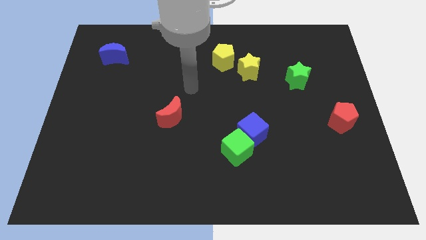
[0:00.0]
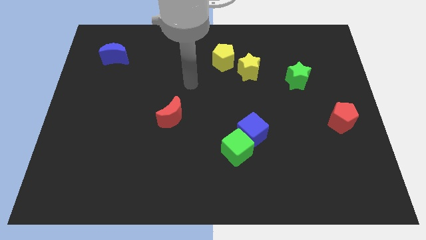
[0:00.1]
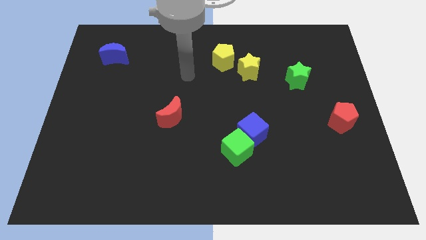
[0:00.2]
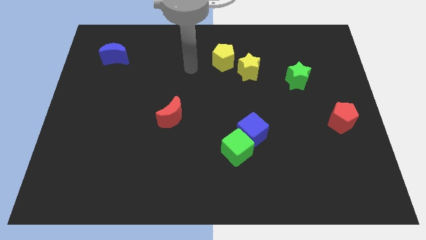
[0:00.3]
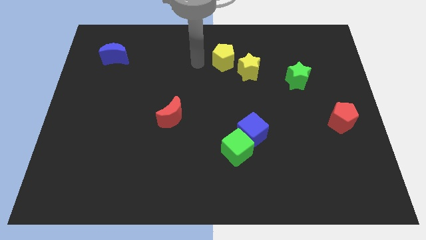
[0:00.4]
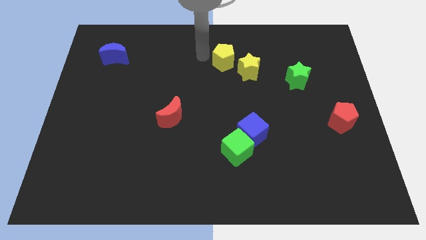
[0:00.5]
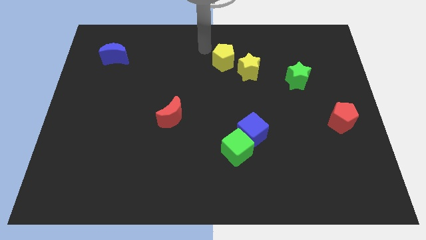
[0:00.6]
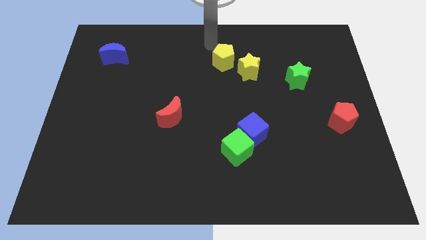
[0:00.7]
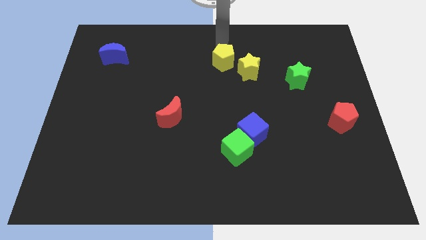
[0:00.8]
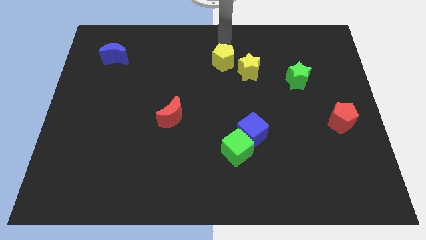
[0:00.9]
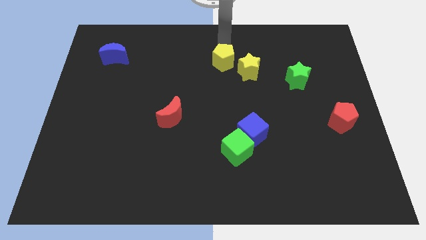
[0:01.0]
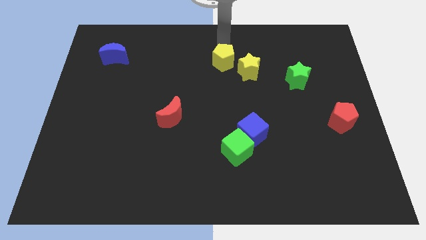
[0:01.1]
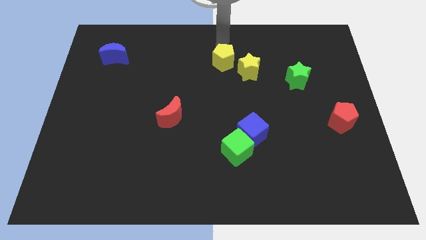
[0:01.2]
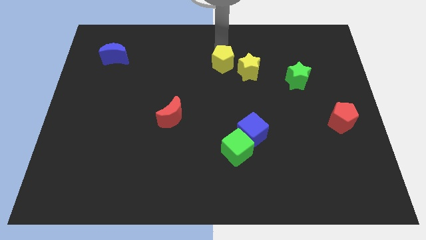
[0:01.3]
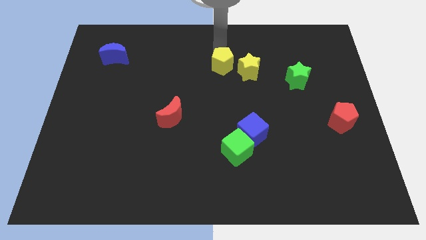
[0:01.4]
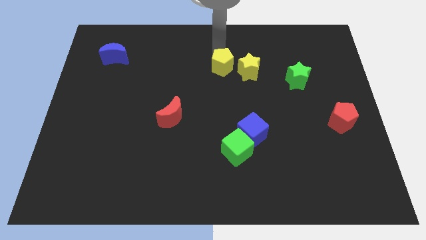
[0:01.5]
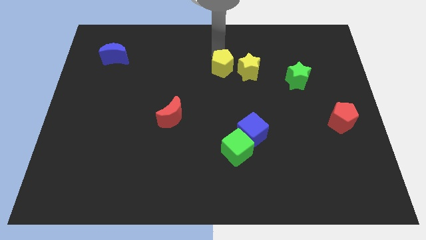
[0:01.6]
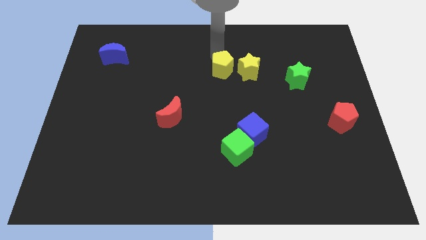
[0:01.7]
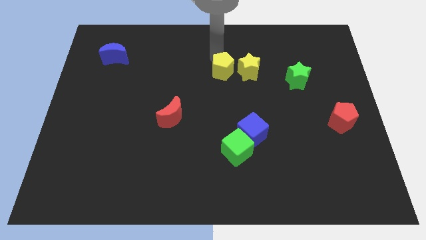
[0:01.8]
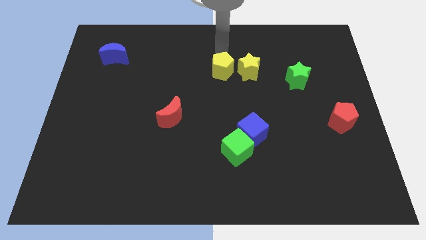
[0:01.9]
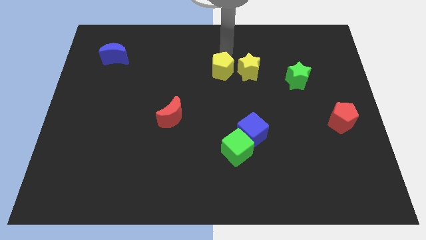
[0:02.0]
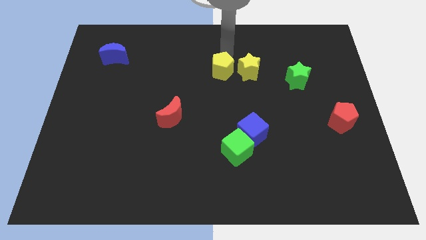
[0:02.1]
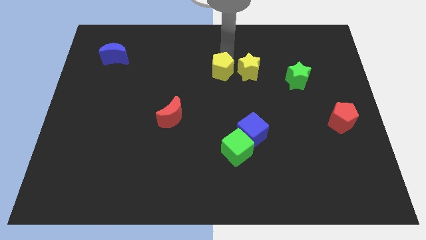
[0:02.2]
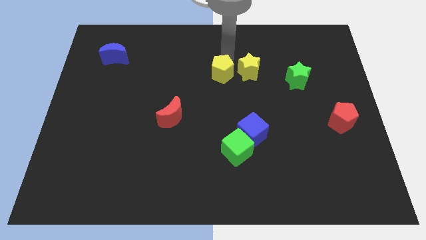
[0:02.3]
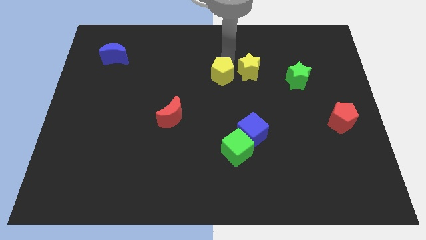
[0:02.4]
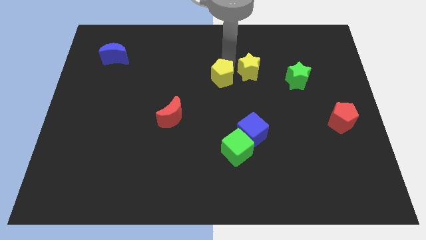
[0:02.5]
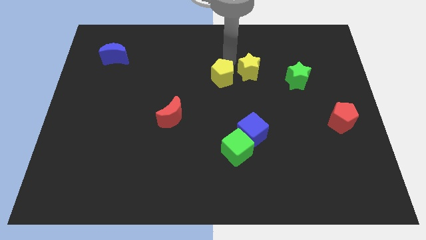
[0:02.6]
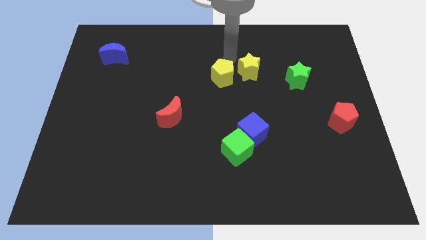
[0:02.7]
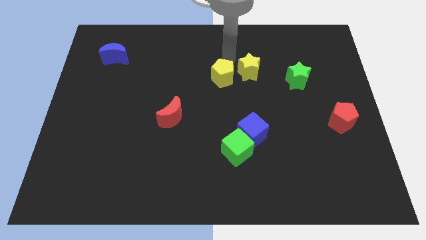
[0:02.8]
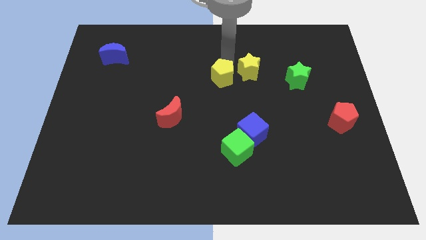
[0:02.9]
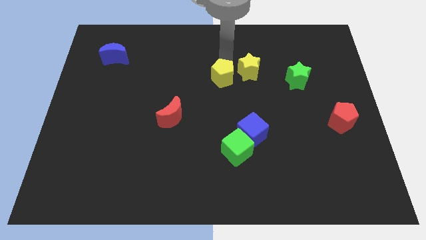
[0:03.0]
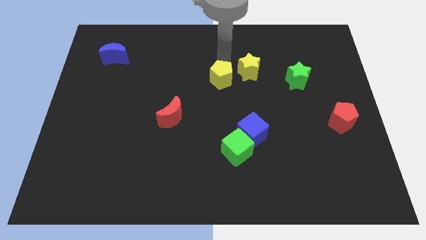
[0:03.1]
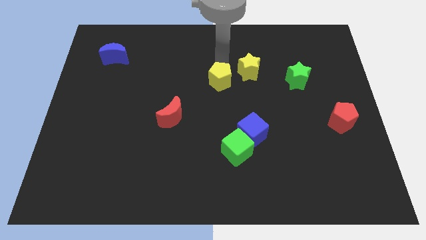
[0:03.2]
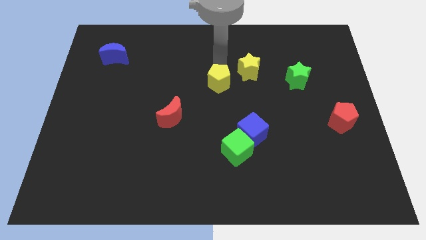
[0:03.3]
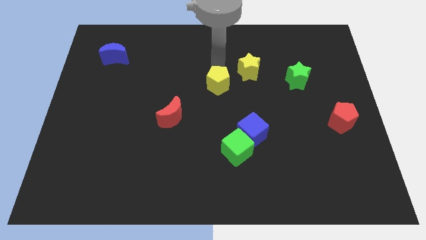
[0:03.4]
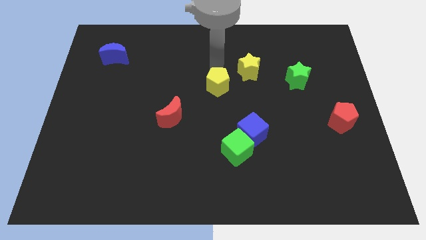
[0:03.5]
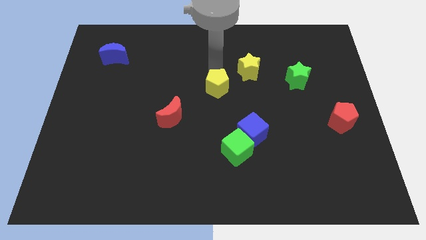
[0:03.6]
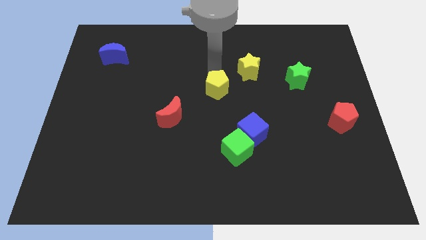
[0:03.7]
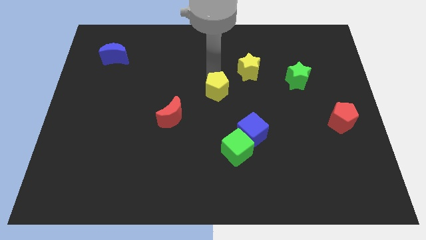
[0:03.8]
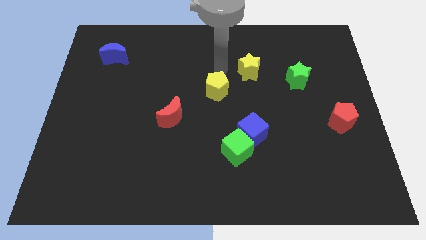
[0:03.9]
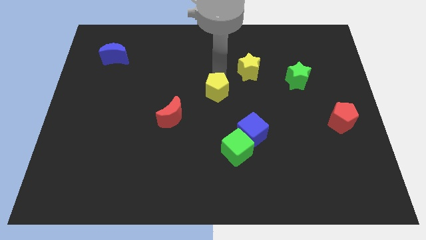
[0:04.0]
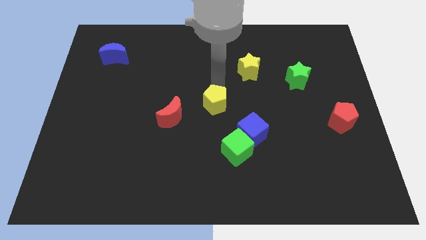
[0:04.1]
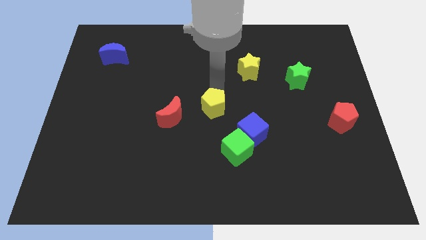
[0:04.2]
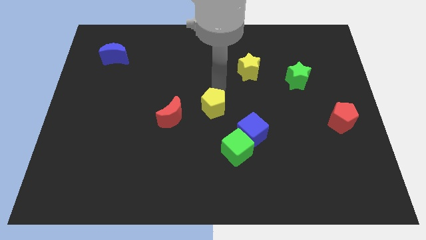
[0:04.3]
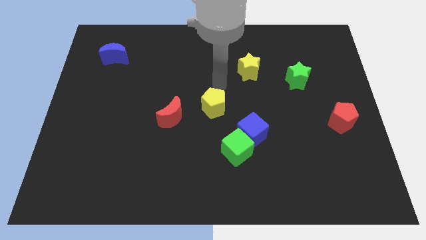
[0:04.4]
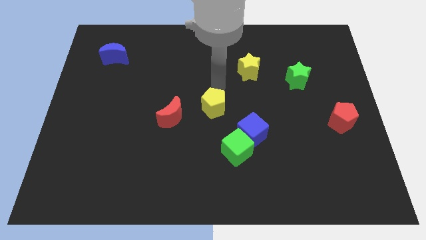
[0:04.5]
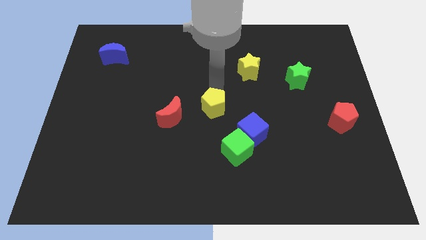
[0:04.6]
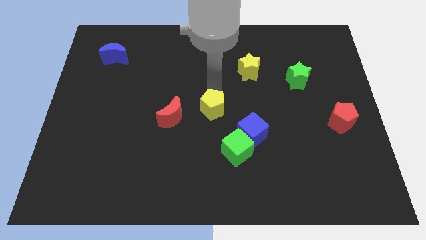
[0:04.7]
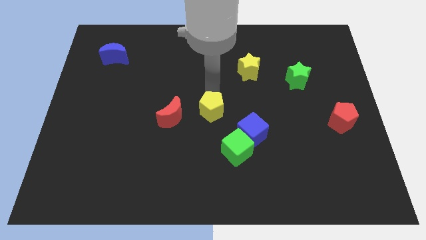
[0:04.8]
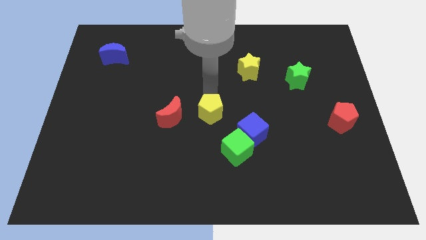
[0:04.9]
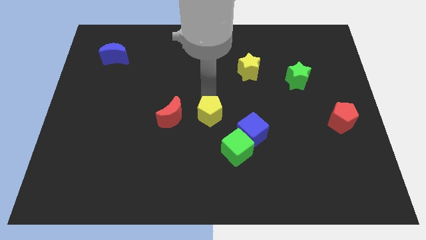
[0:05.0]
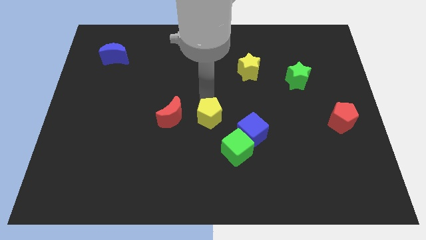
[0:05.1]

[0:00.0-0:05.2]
slide the yellow pentagon to the left of the blue cube

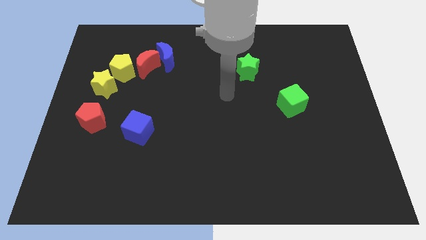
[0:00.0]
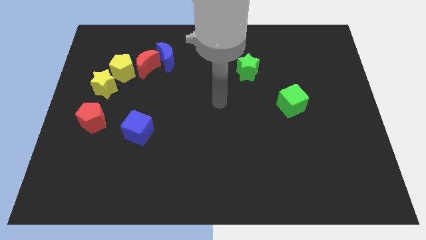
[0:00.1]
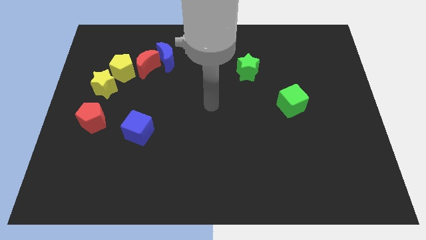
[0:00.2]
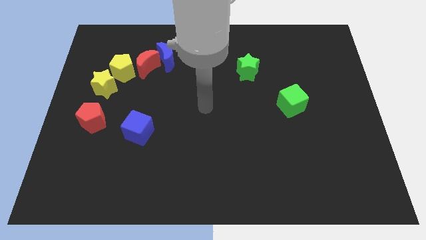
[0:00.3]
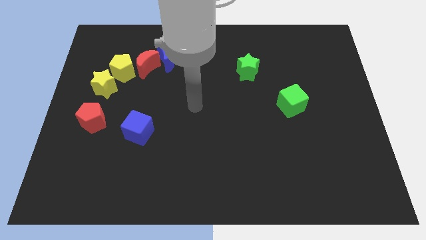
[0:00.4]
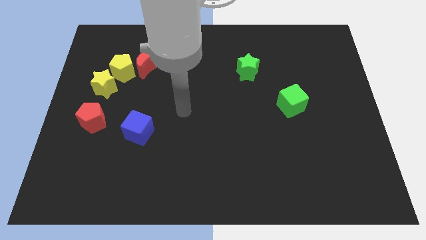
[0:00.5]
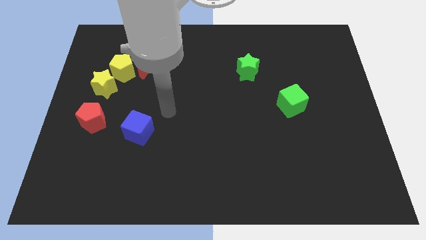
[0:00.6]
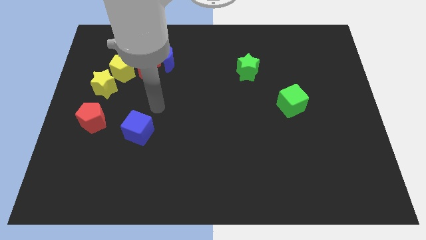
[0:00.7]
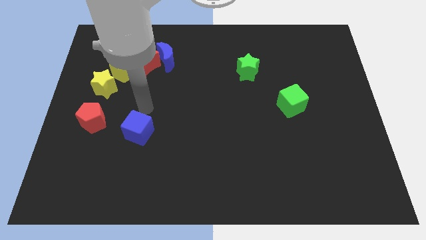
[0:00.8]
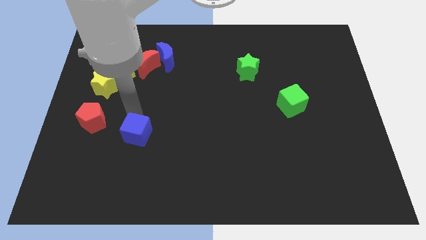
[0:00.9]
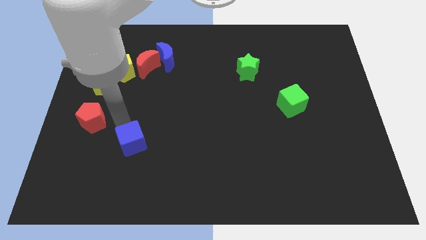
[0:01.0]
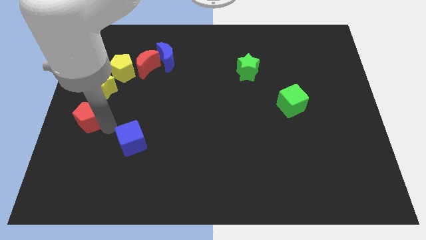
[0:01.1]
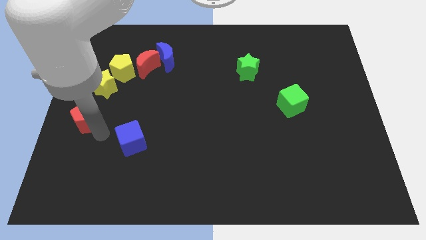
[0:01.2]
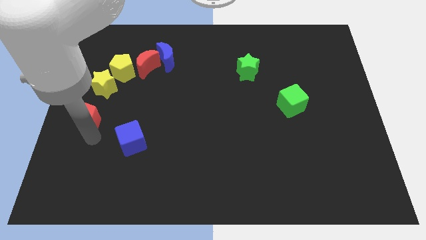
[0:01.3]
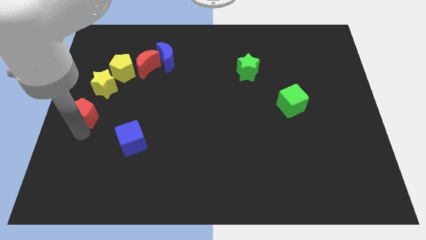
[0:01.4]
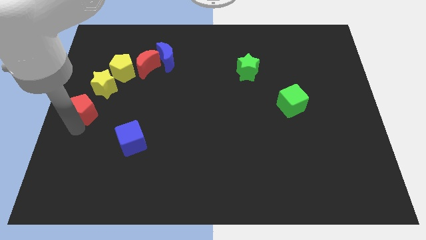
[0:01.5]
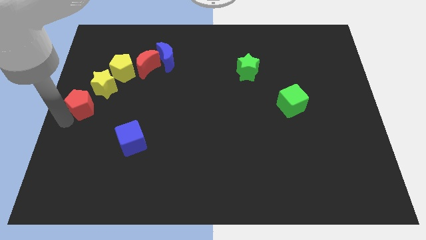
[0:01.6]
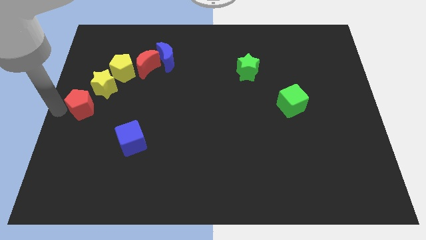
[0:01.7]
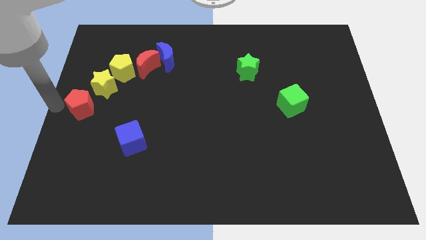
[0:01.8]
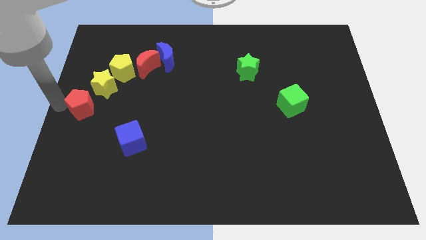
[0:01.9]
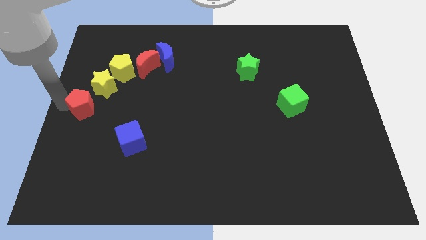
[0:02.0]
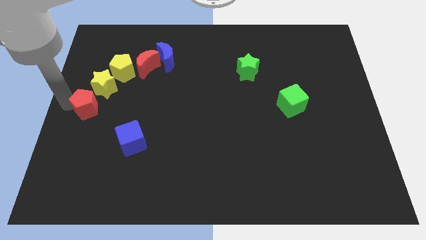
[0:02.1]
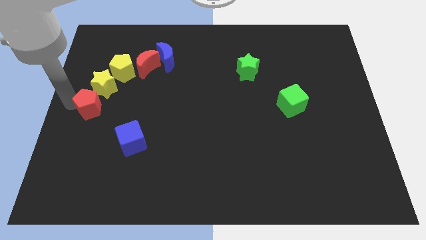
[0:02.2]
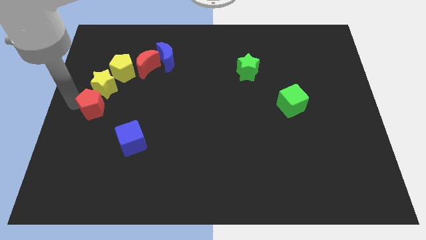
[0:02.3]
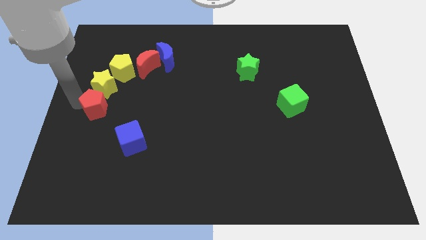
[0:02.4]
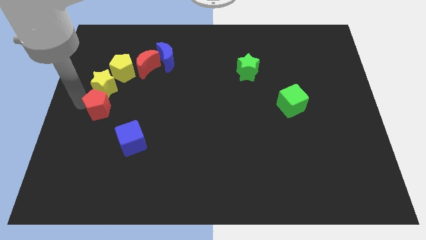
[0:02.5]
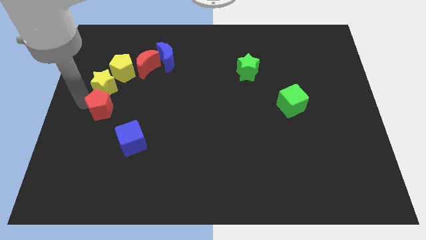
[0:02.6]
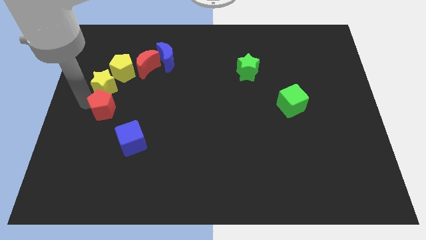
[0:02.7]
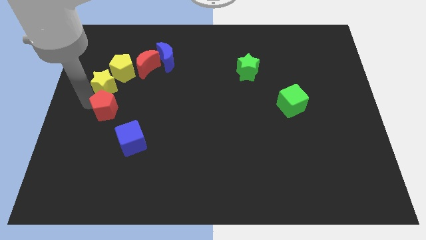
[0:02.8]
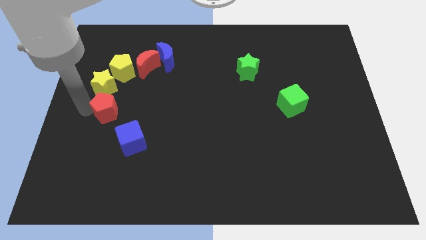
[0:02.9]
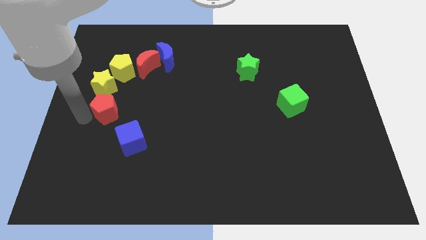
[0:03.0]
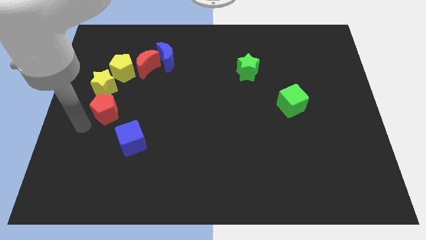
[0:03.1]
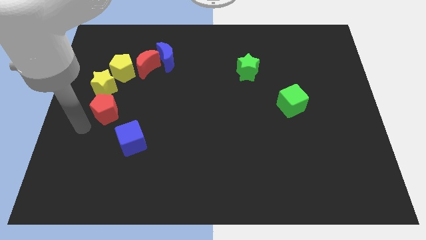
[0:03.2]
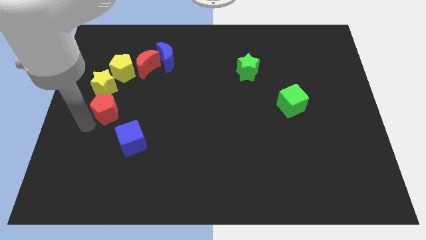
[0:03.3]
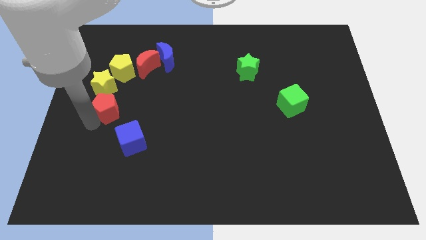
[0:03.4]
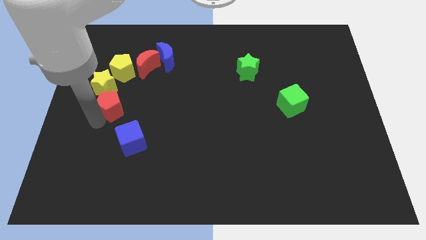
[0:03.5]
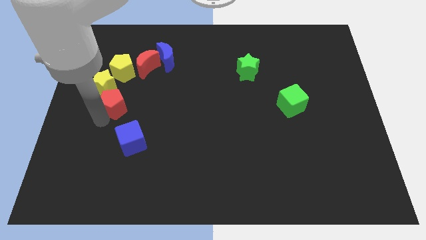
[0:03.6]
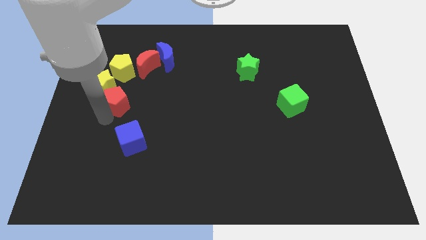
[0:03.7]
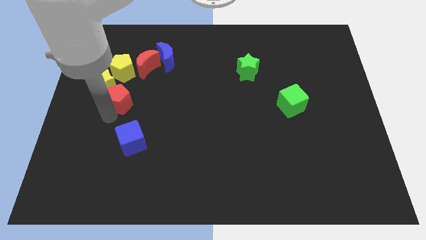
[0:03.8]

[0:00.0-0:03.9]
slide the red pentagon just right of the yellow star
